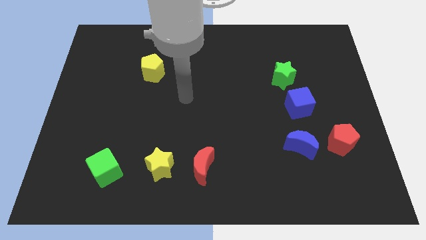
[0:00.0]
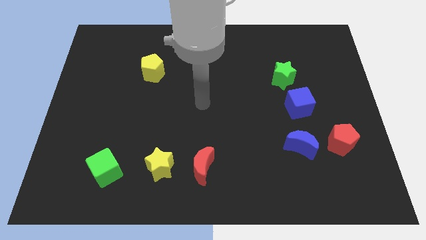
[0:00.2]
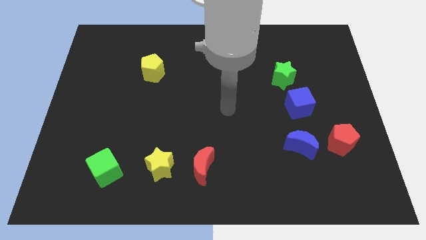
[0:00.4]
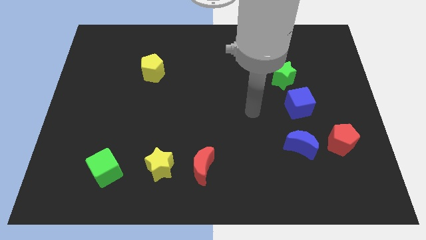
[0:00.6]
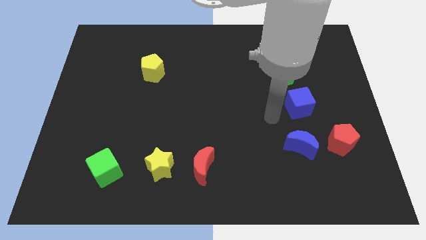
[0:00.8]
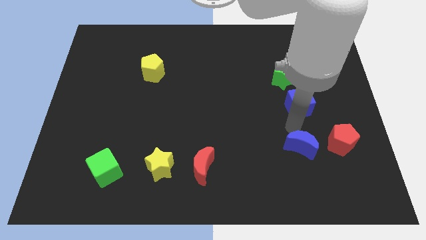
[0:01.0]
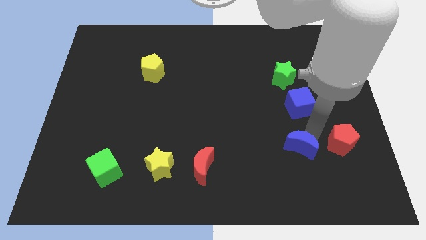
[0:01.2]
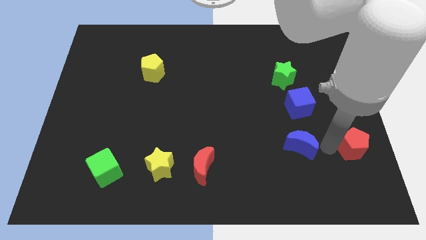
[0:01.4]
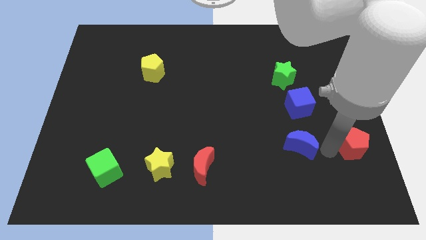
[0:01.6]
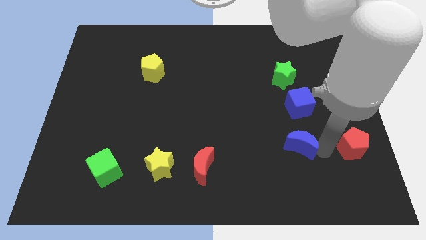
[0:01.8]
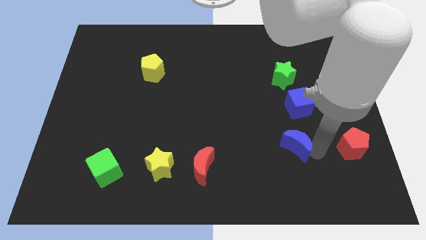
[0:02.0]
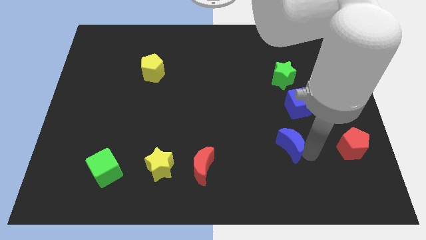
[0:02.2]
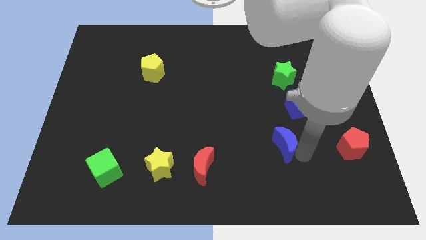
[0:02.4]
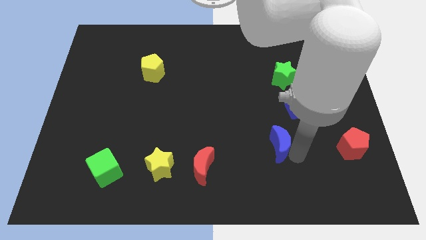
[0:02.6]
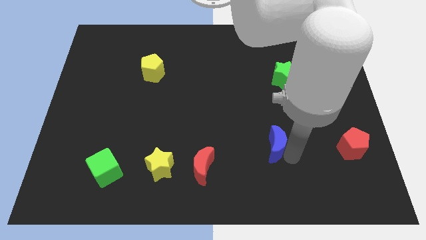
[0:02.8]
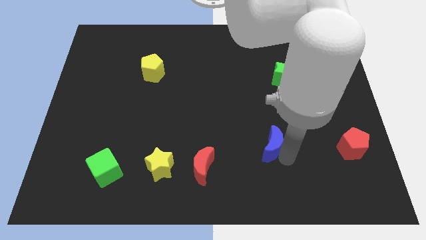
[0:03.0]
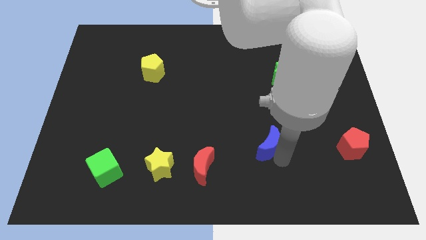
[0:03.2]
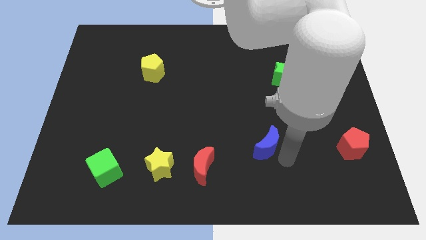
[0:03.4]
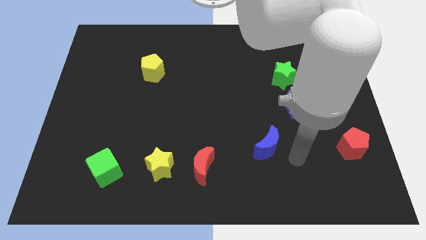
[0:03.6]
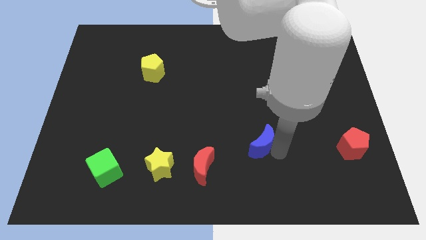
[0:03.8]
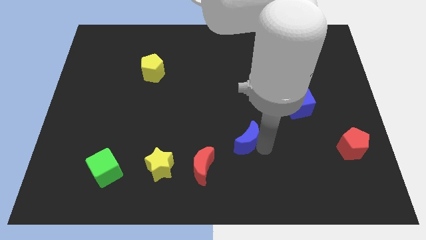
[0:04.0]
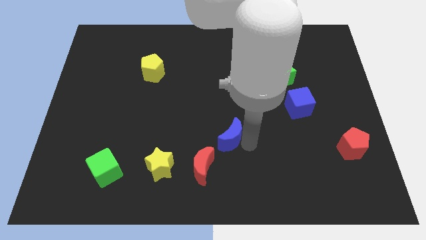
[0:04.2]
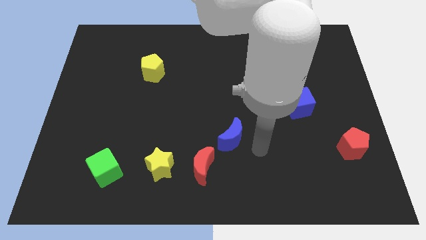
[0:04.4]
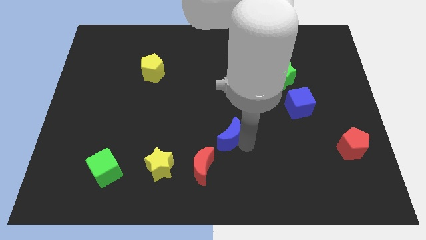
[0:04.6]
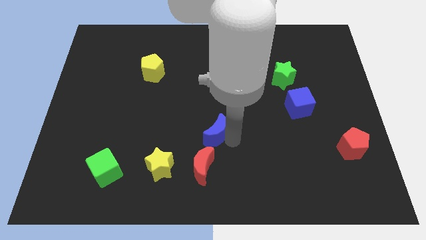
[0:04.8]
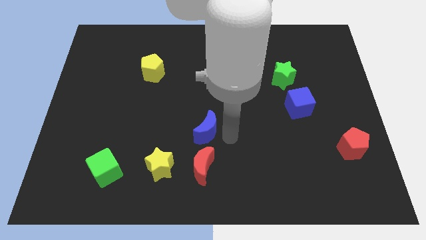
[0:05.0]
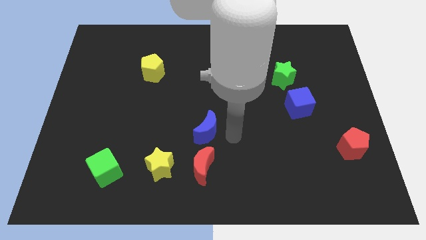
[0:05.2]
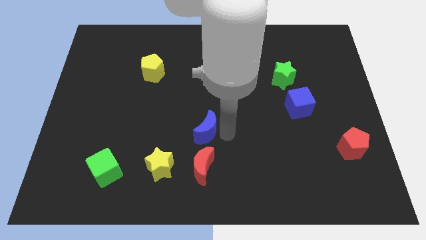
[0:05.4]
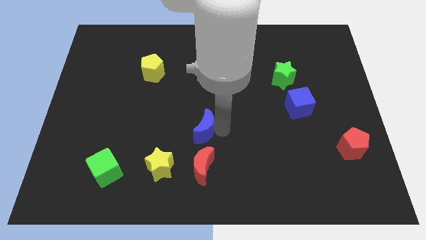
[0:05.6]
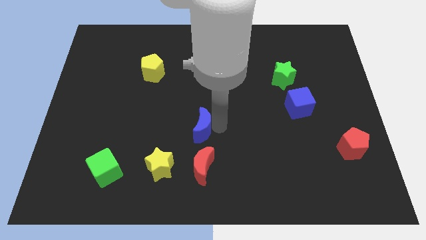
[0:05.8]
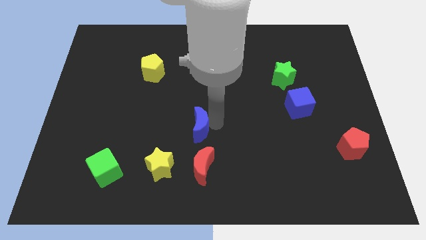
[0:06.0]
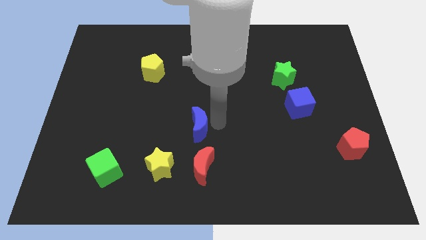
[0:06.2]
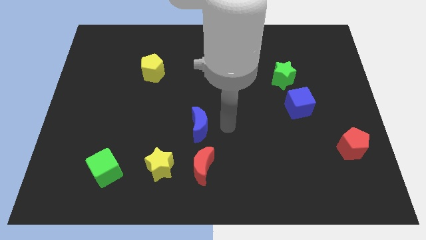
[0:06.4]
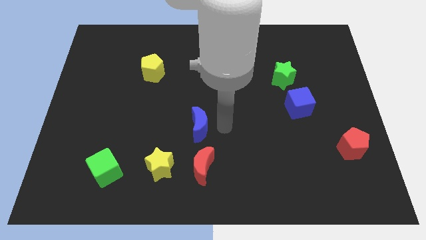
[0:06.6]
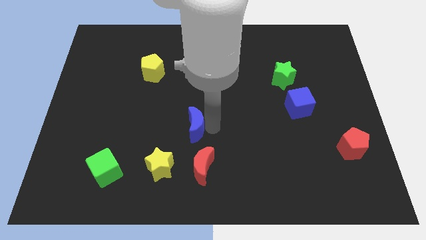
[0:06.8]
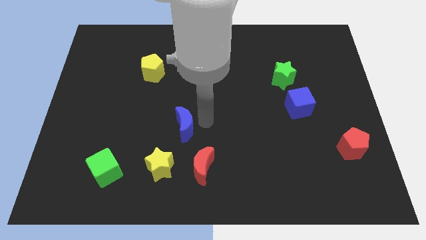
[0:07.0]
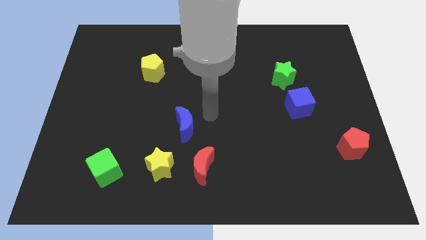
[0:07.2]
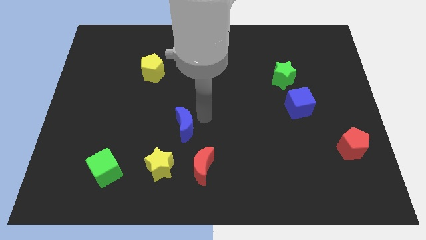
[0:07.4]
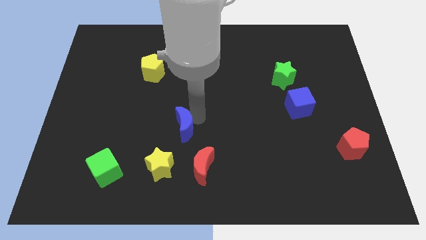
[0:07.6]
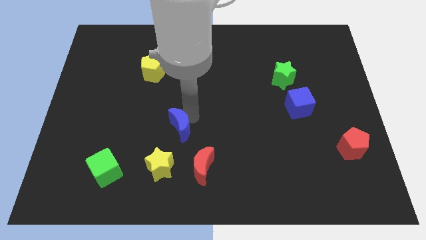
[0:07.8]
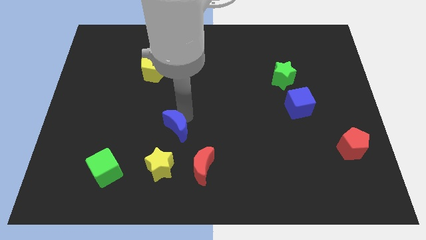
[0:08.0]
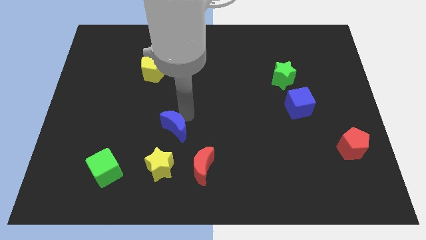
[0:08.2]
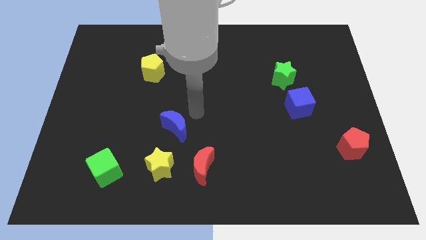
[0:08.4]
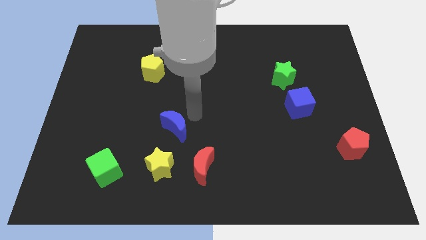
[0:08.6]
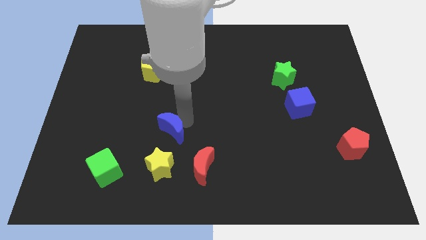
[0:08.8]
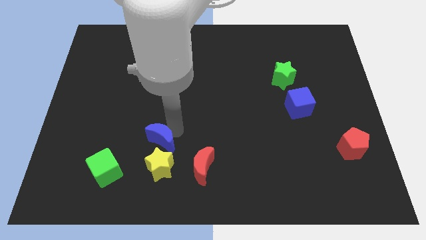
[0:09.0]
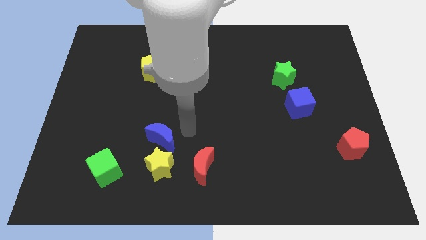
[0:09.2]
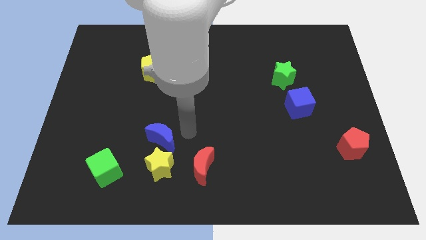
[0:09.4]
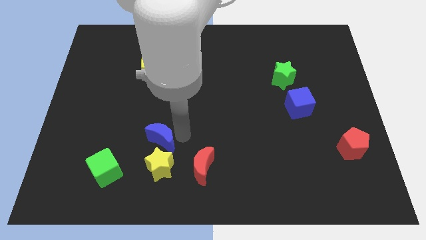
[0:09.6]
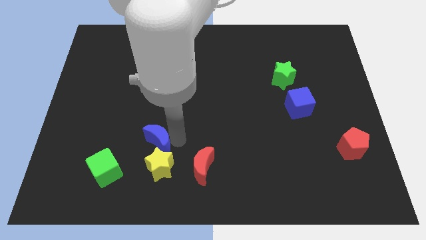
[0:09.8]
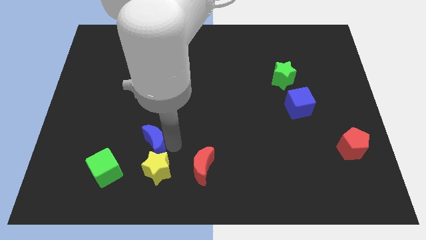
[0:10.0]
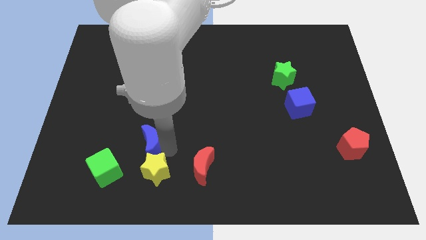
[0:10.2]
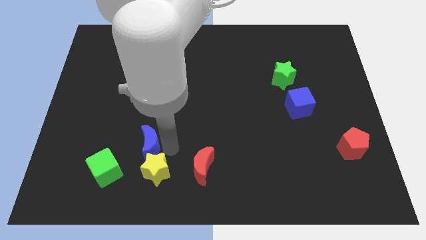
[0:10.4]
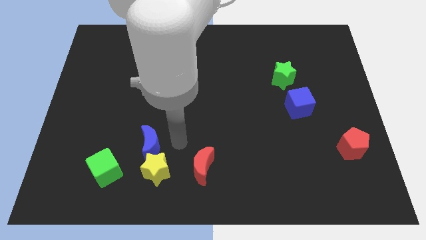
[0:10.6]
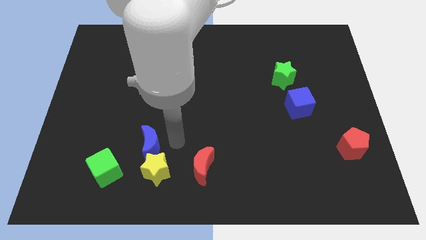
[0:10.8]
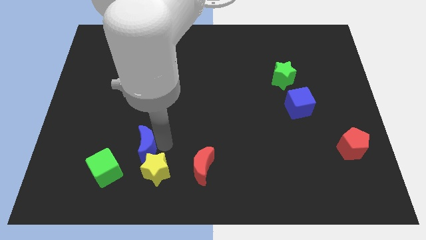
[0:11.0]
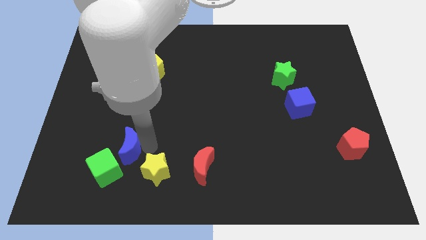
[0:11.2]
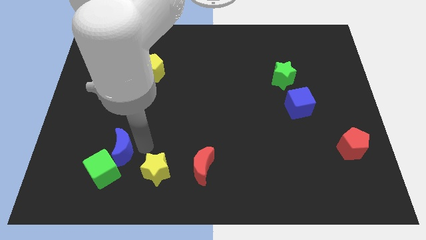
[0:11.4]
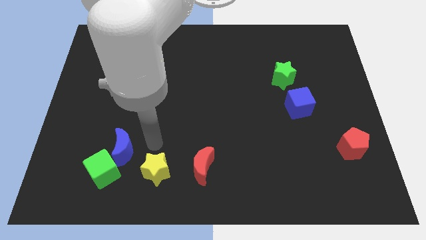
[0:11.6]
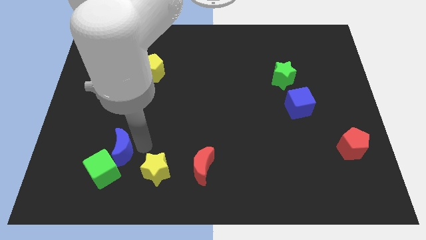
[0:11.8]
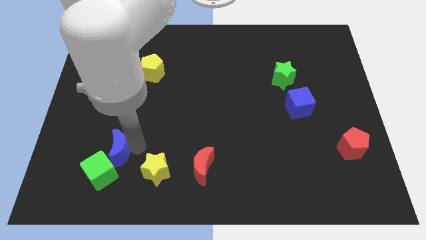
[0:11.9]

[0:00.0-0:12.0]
push the blue moon left of the yellow star

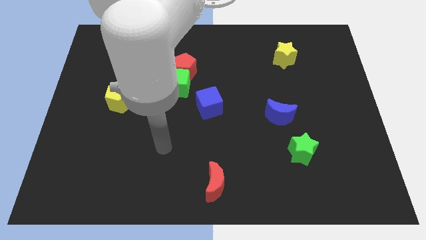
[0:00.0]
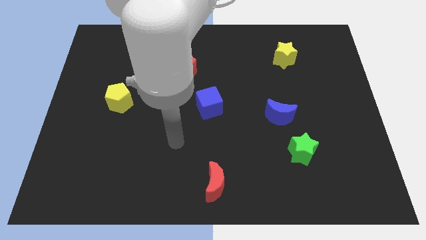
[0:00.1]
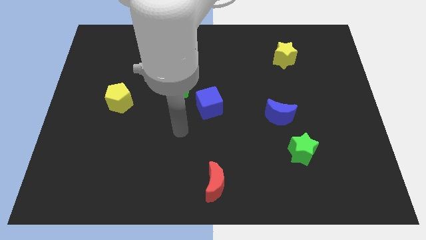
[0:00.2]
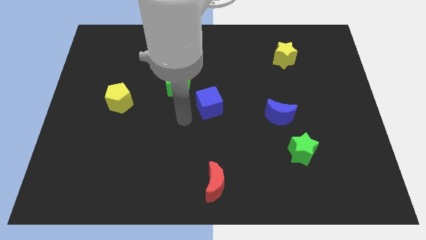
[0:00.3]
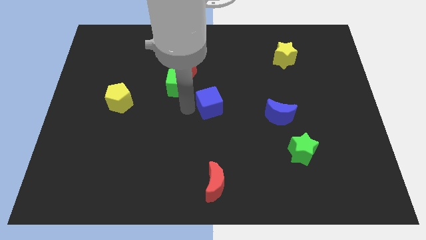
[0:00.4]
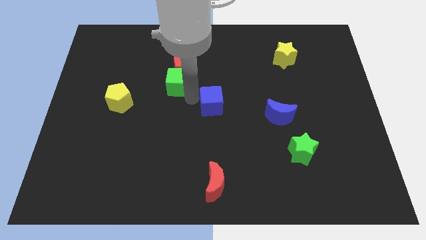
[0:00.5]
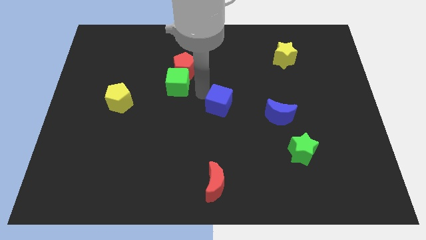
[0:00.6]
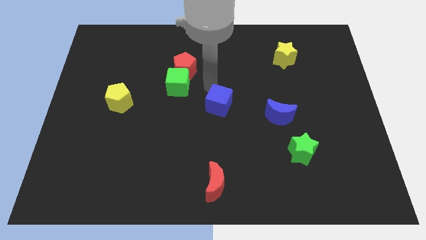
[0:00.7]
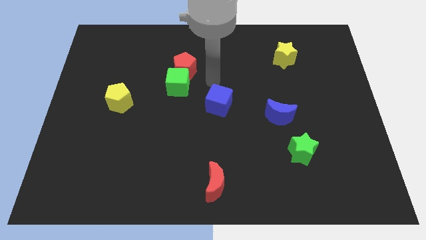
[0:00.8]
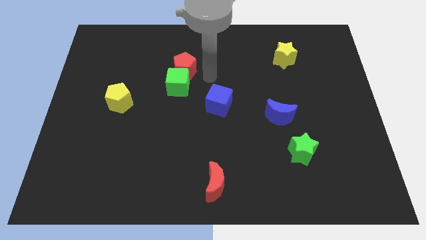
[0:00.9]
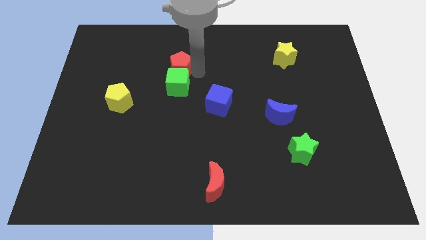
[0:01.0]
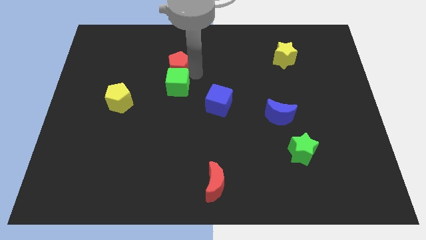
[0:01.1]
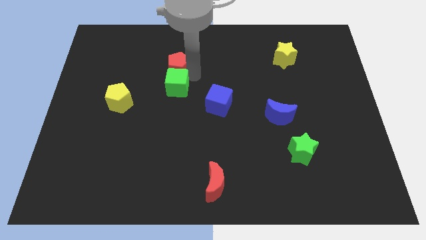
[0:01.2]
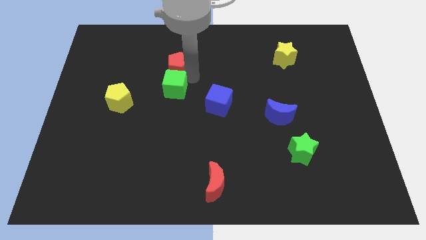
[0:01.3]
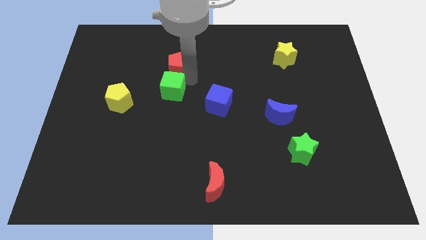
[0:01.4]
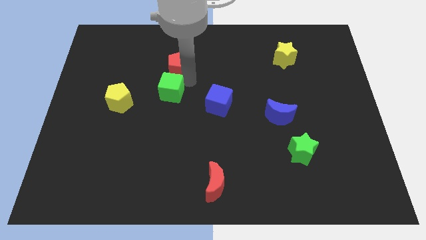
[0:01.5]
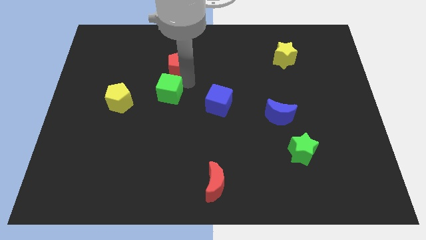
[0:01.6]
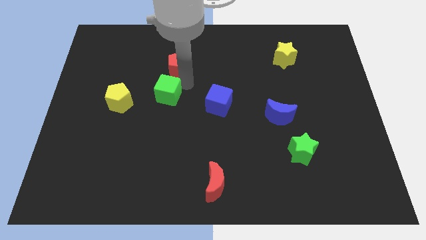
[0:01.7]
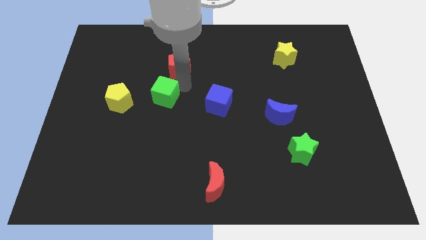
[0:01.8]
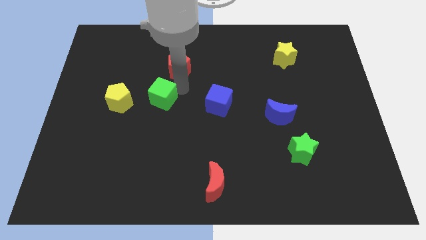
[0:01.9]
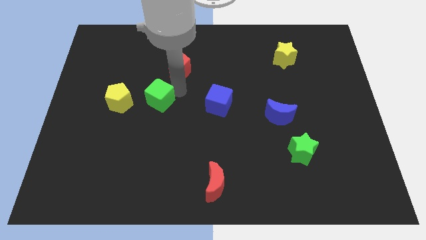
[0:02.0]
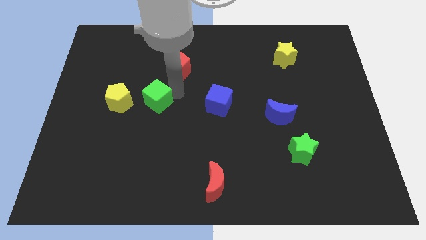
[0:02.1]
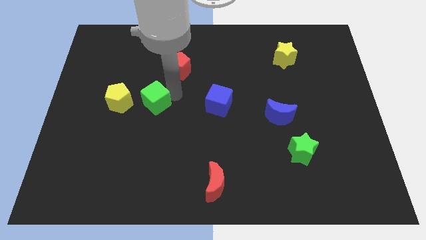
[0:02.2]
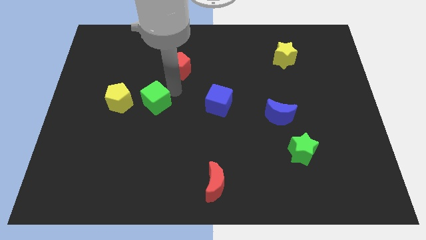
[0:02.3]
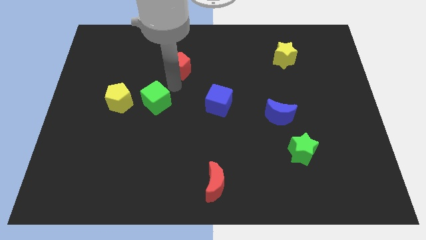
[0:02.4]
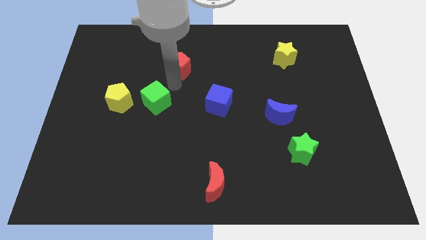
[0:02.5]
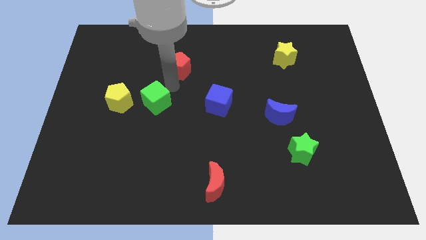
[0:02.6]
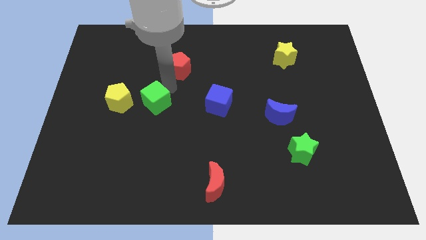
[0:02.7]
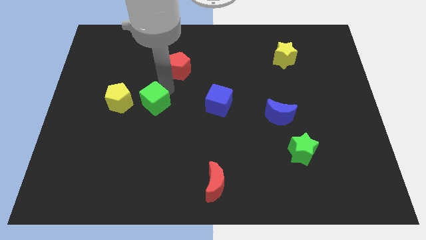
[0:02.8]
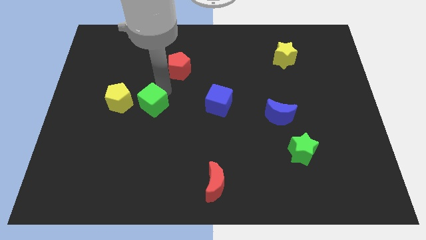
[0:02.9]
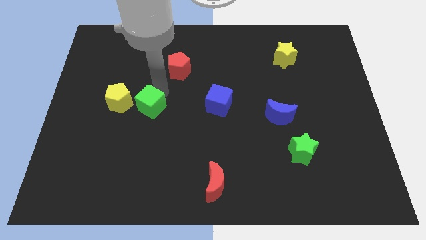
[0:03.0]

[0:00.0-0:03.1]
put the green cube diagonally down and to the right of the yellow pentagon
